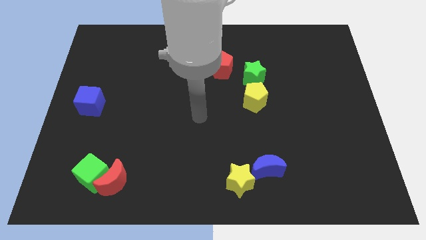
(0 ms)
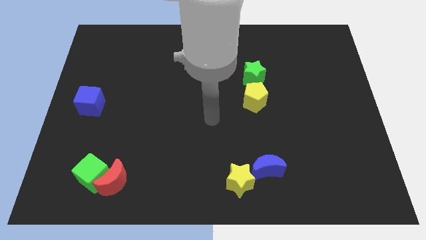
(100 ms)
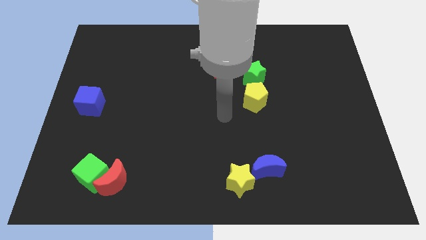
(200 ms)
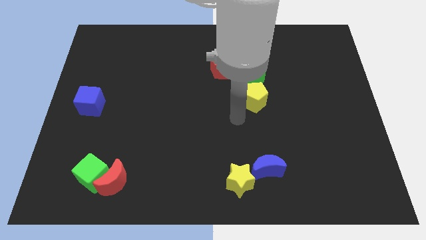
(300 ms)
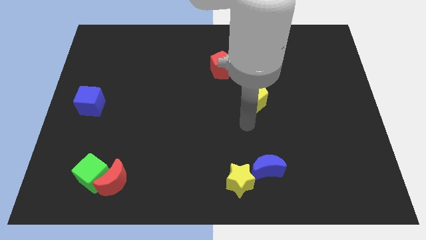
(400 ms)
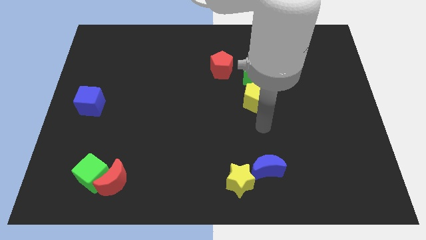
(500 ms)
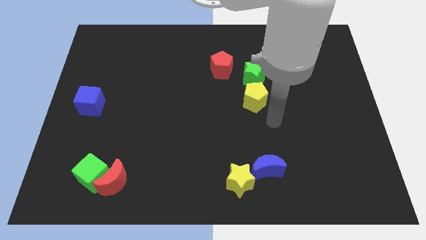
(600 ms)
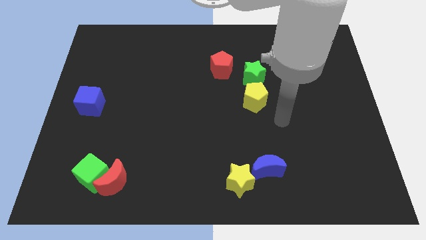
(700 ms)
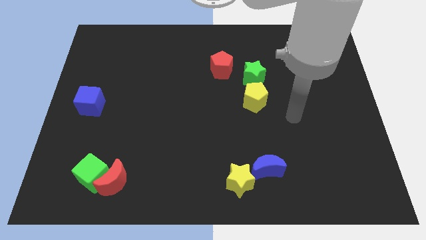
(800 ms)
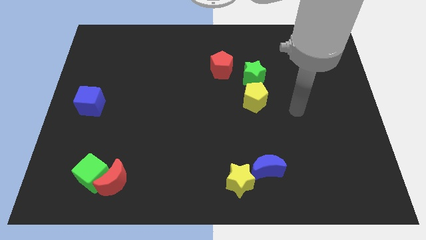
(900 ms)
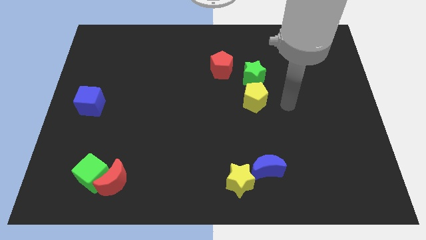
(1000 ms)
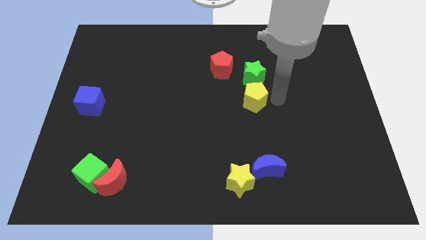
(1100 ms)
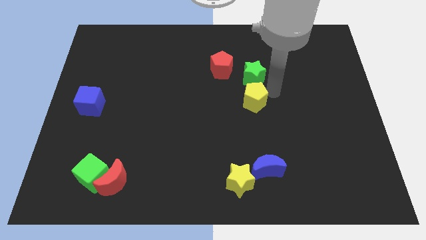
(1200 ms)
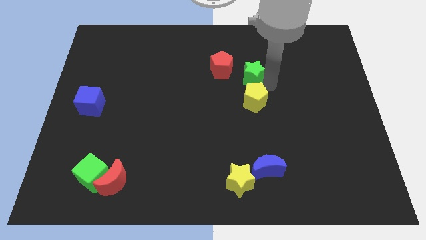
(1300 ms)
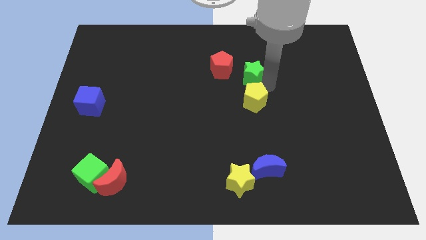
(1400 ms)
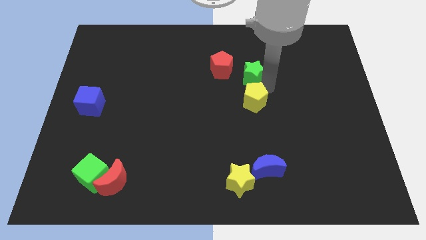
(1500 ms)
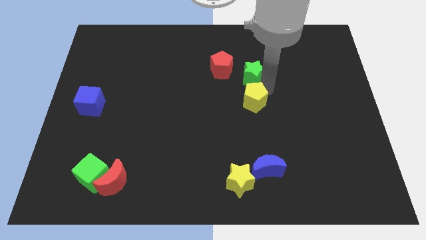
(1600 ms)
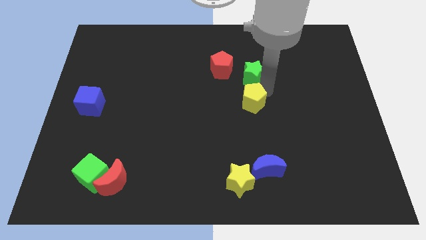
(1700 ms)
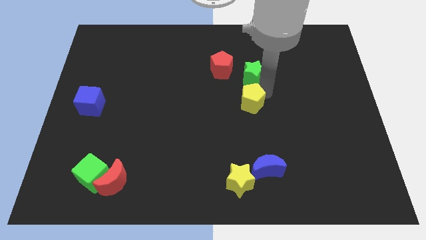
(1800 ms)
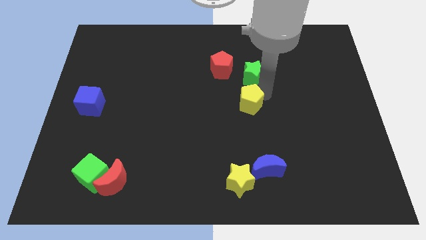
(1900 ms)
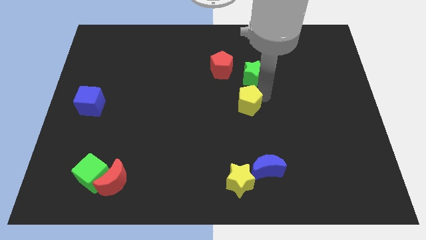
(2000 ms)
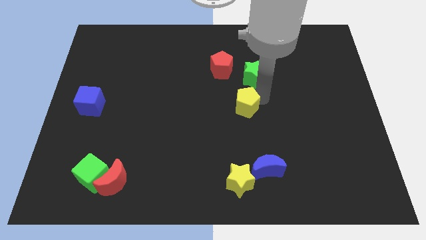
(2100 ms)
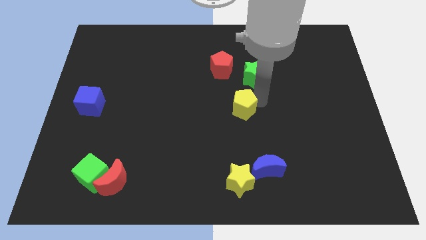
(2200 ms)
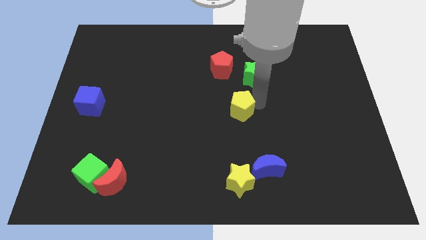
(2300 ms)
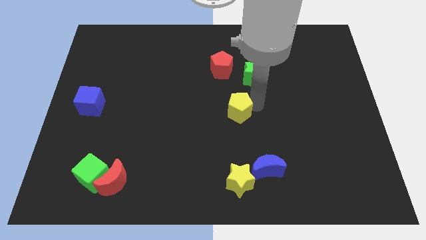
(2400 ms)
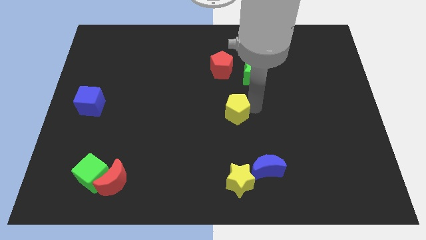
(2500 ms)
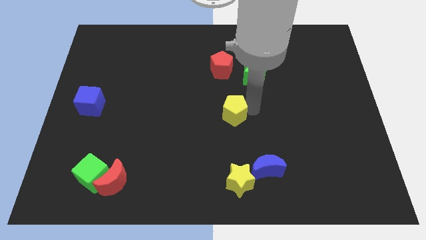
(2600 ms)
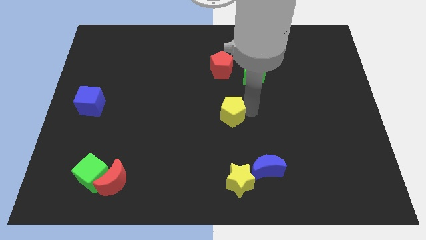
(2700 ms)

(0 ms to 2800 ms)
slightly move the yellow pentagon down and then left

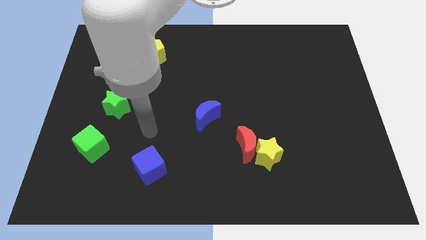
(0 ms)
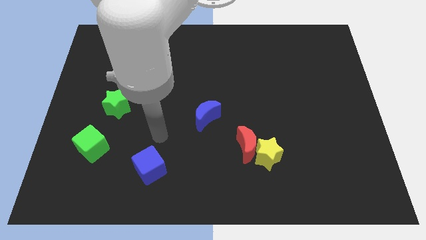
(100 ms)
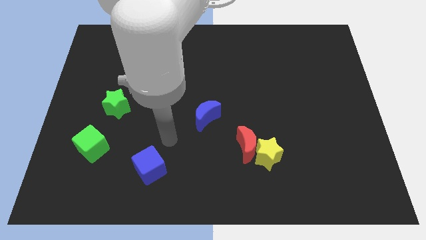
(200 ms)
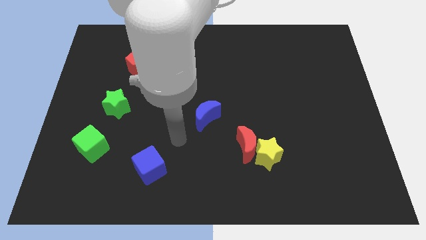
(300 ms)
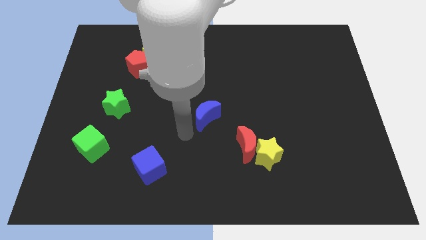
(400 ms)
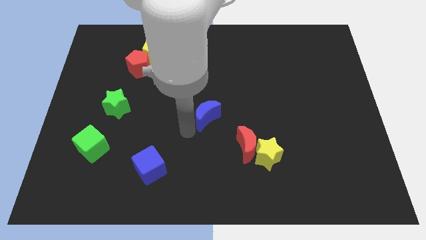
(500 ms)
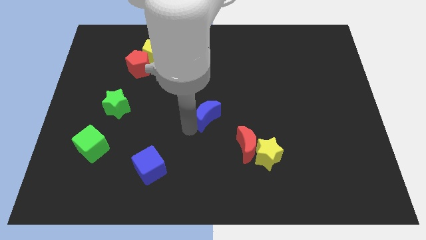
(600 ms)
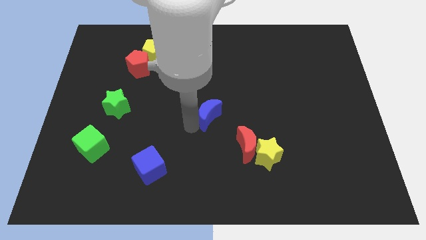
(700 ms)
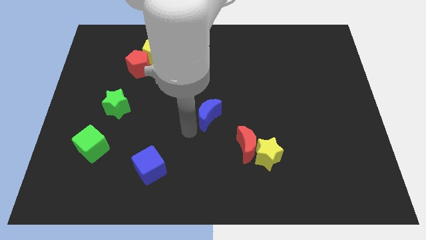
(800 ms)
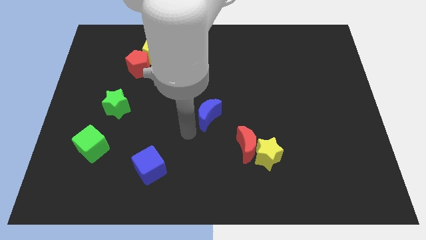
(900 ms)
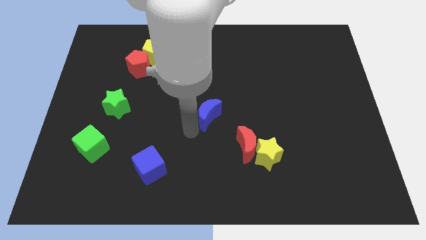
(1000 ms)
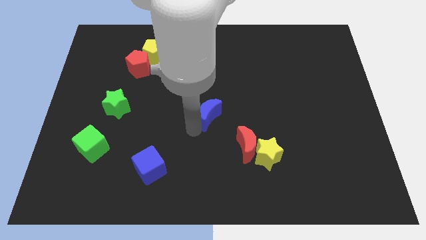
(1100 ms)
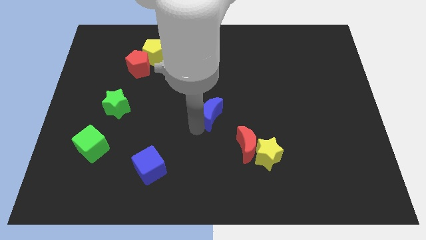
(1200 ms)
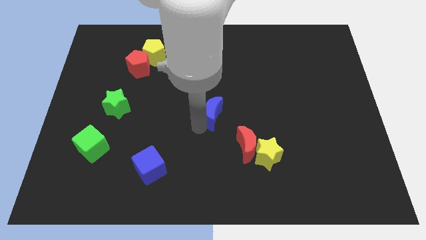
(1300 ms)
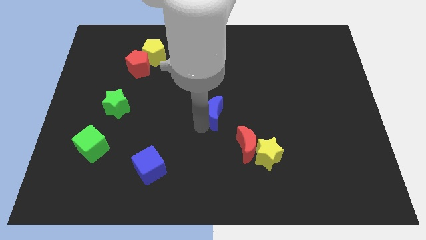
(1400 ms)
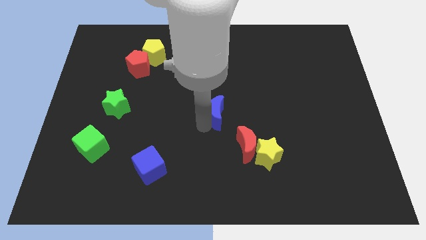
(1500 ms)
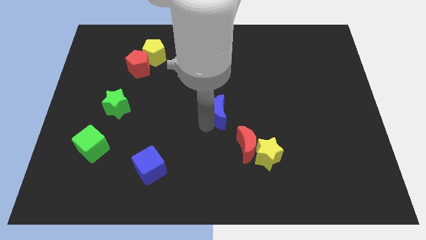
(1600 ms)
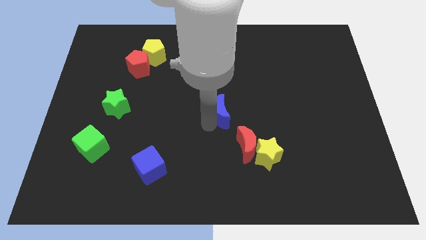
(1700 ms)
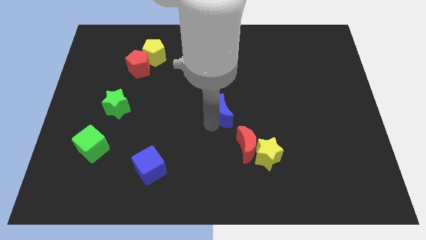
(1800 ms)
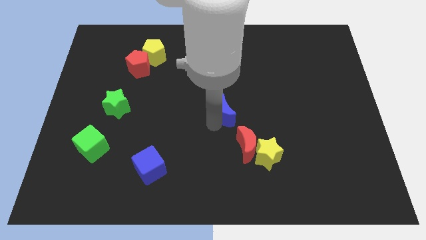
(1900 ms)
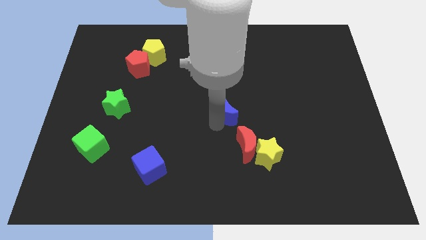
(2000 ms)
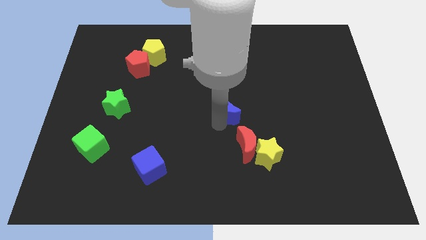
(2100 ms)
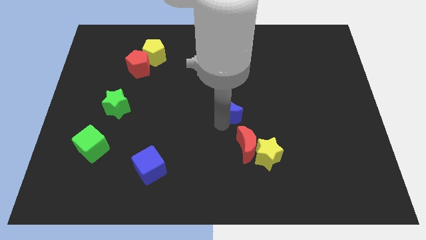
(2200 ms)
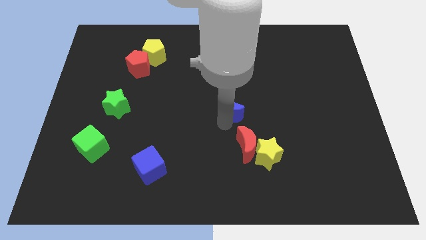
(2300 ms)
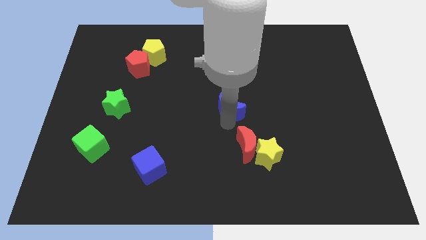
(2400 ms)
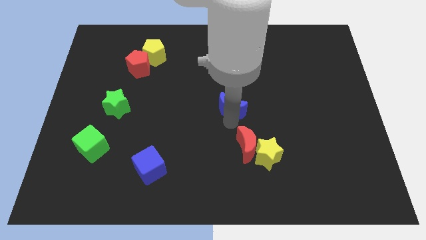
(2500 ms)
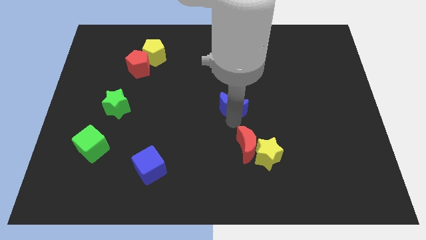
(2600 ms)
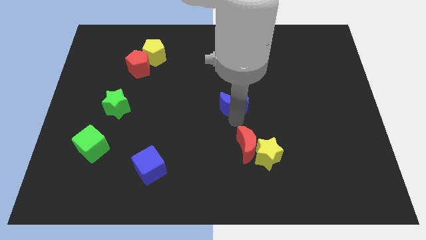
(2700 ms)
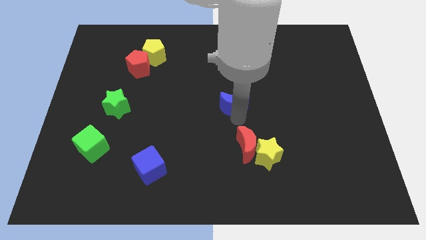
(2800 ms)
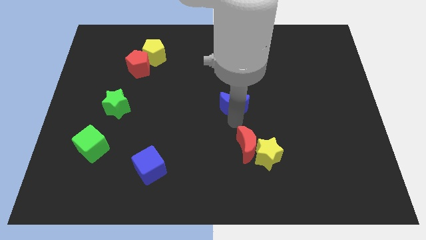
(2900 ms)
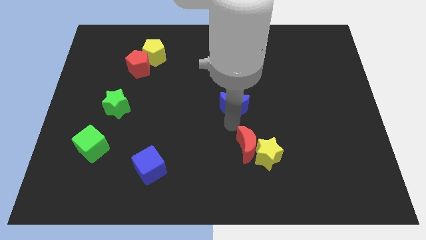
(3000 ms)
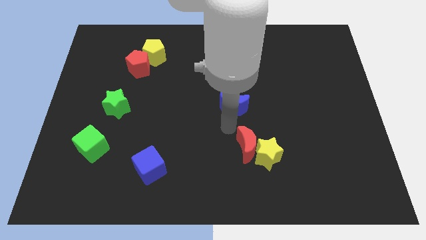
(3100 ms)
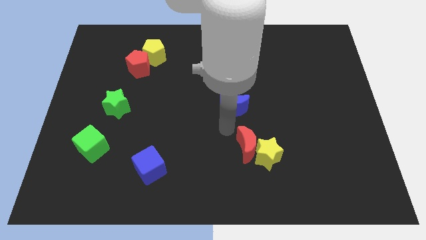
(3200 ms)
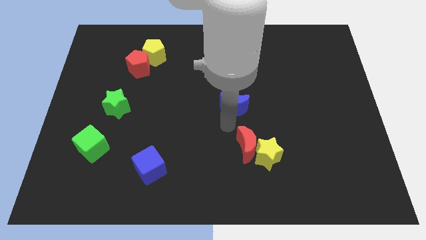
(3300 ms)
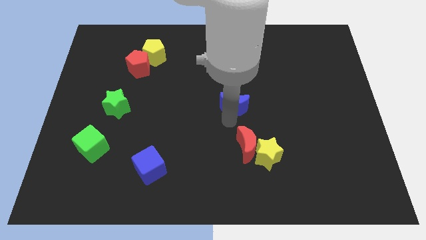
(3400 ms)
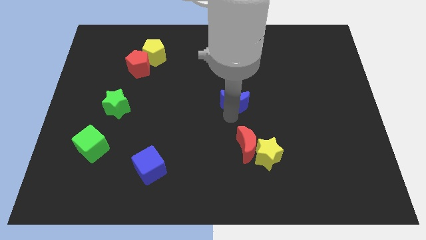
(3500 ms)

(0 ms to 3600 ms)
slide the blue moon diagonally upwards and right somewhat

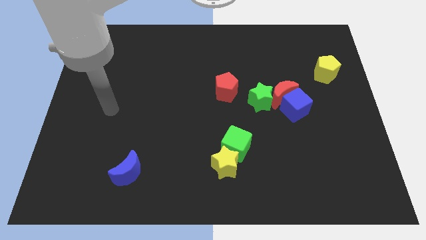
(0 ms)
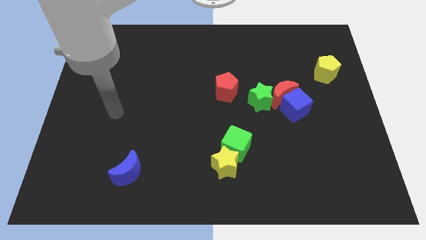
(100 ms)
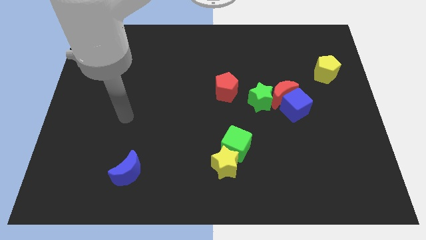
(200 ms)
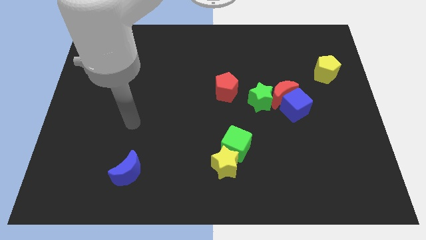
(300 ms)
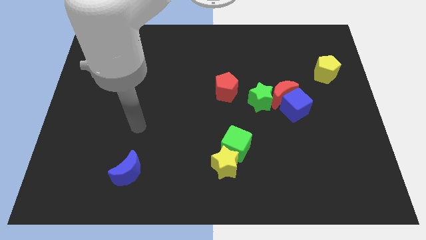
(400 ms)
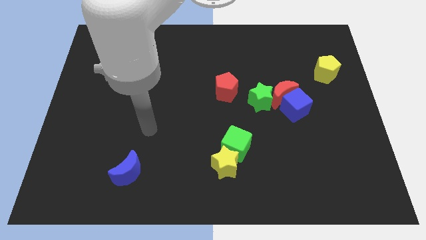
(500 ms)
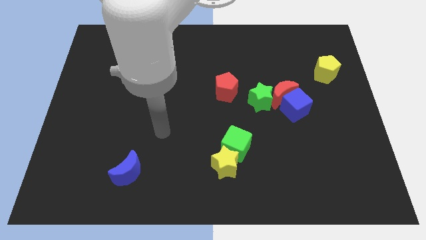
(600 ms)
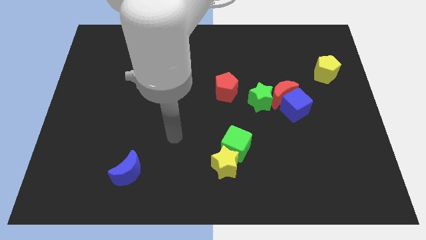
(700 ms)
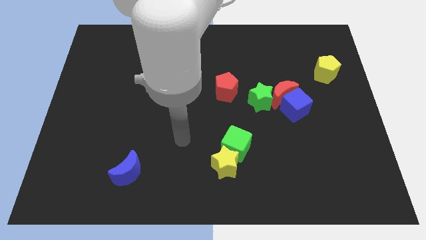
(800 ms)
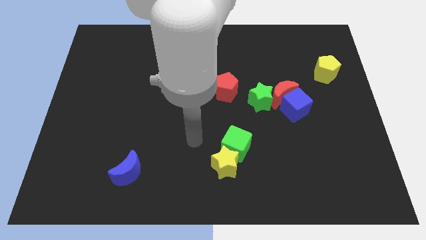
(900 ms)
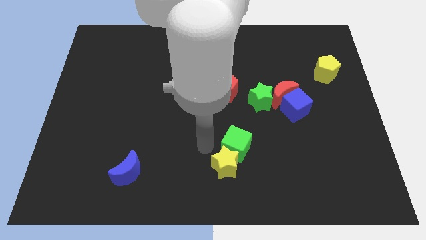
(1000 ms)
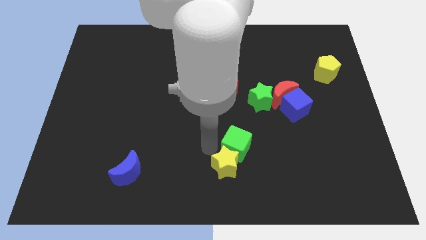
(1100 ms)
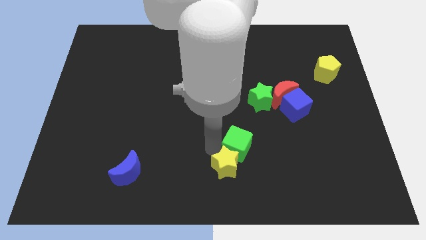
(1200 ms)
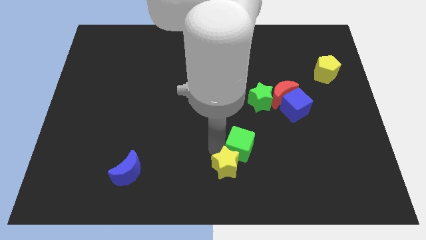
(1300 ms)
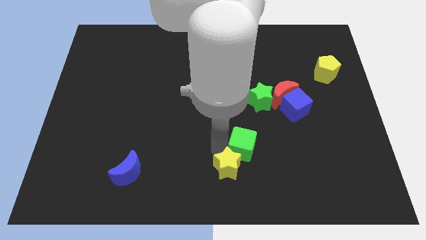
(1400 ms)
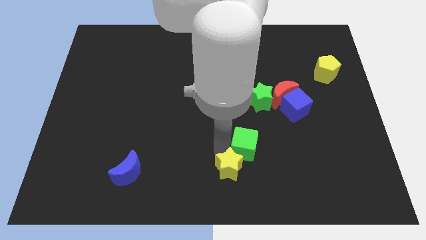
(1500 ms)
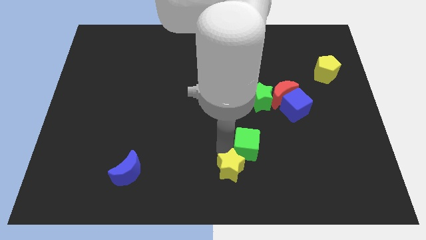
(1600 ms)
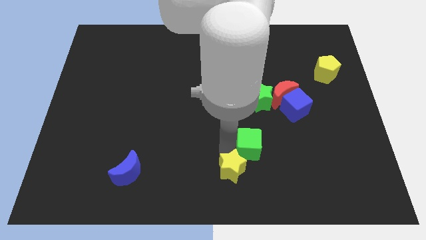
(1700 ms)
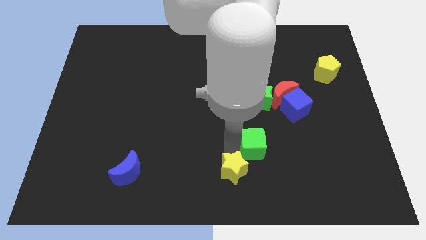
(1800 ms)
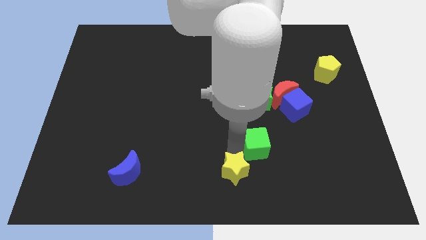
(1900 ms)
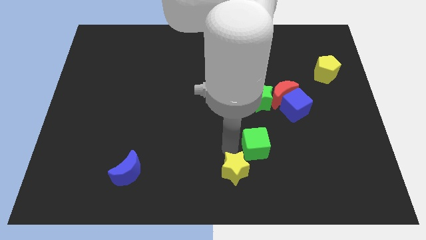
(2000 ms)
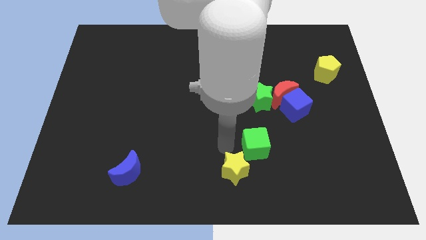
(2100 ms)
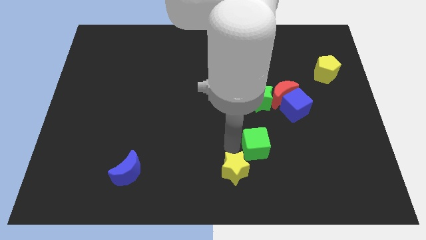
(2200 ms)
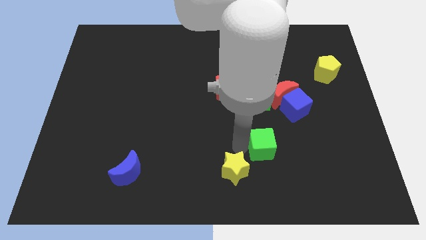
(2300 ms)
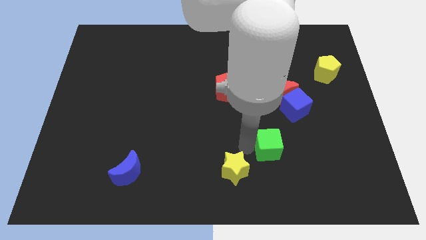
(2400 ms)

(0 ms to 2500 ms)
push the green cube a little to the right
